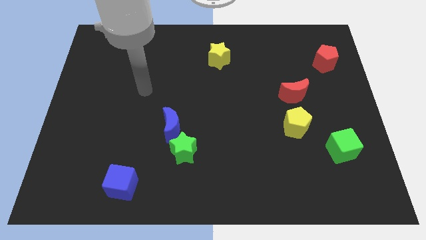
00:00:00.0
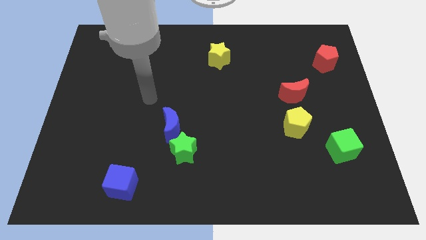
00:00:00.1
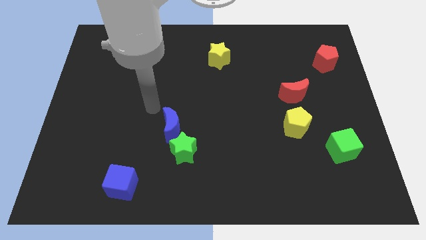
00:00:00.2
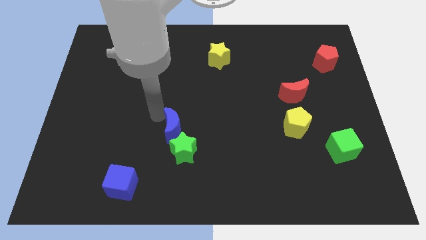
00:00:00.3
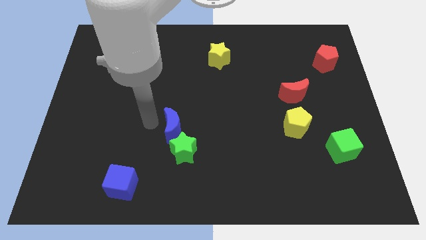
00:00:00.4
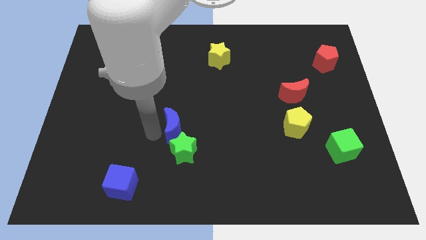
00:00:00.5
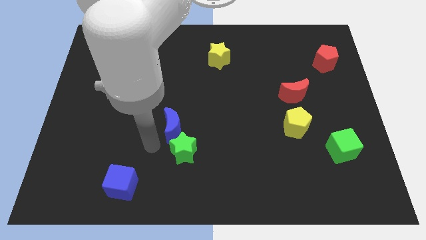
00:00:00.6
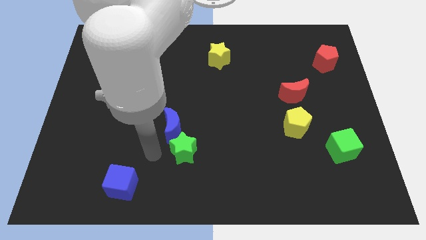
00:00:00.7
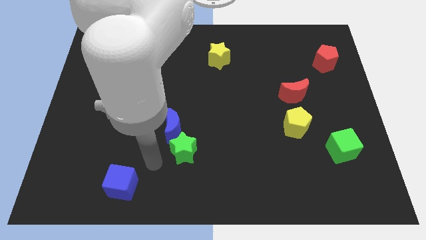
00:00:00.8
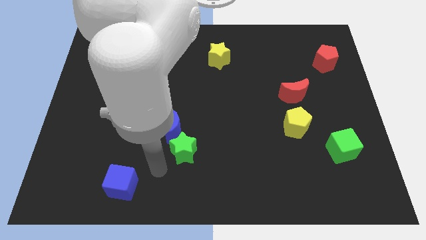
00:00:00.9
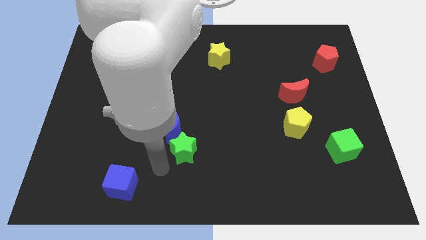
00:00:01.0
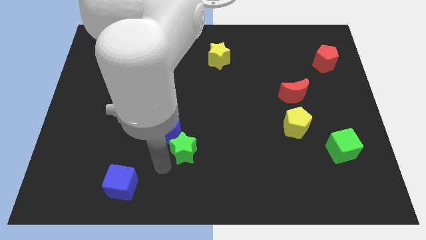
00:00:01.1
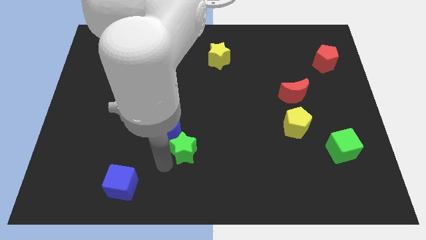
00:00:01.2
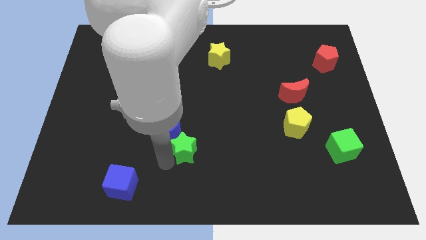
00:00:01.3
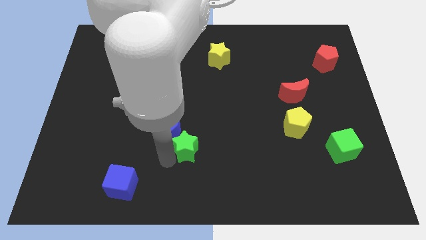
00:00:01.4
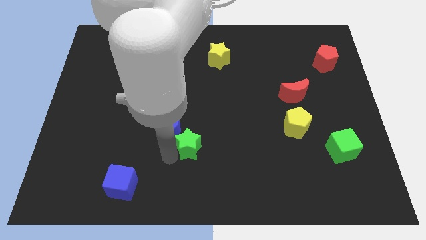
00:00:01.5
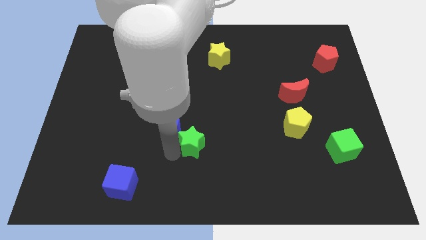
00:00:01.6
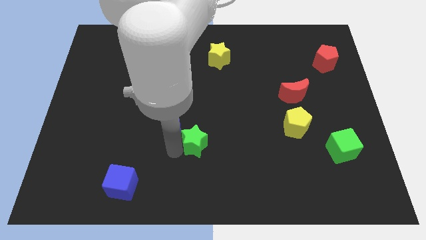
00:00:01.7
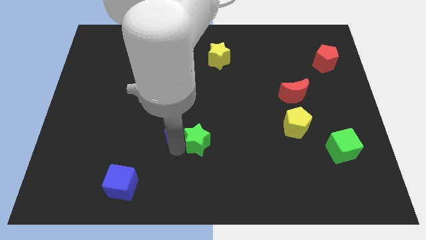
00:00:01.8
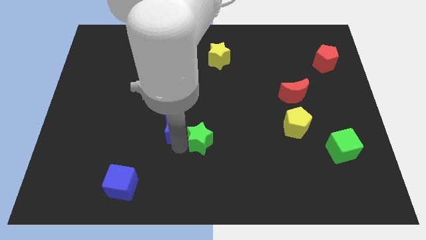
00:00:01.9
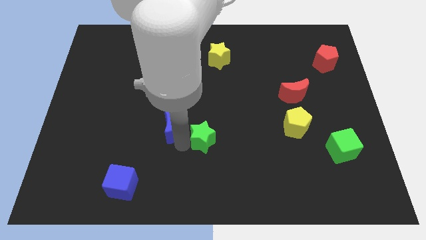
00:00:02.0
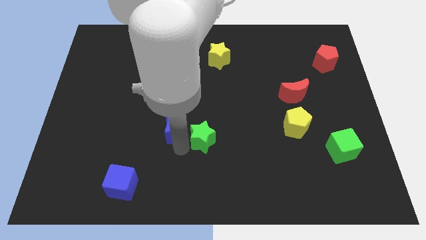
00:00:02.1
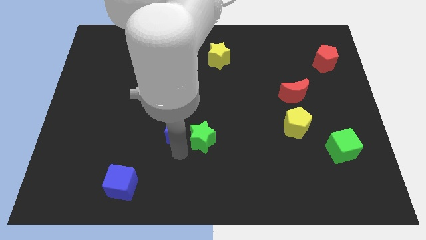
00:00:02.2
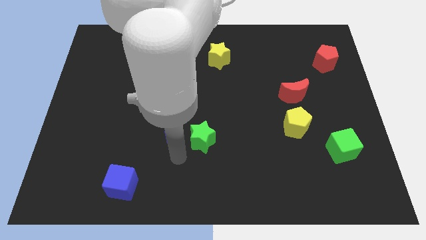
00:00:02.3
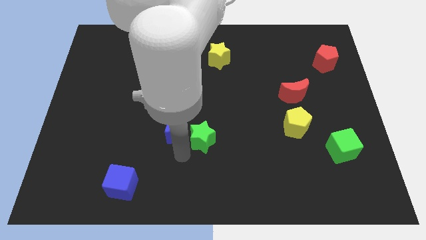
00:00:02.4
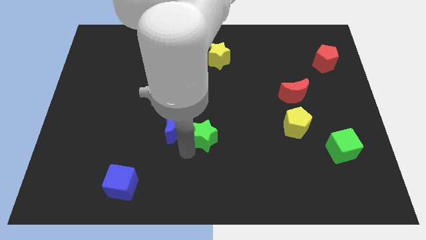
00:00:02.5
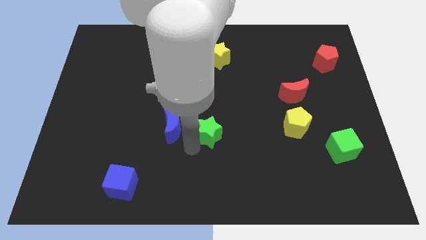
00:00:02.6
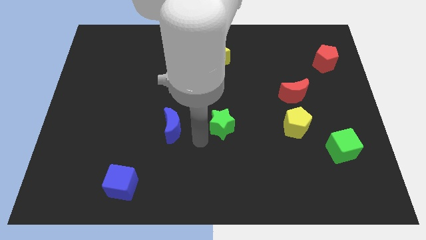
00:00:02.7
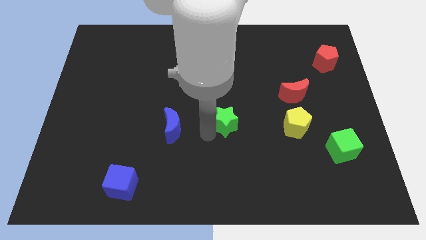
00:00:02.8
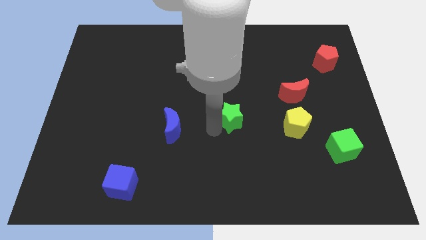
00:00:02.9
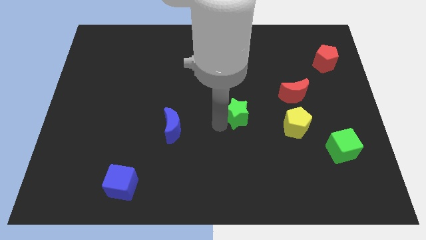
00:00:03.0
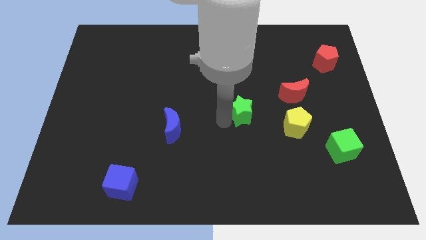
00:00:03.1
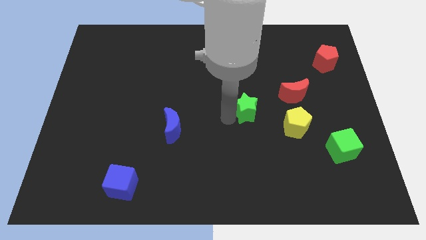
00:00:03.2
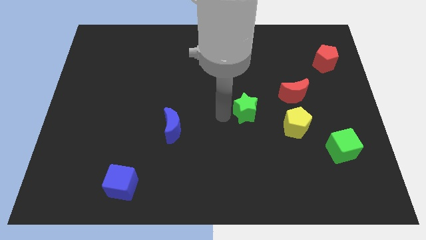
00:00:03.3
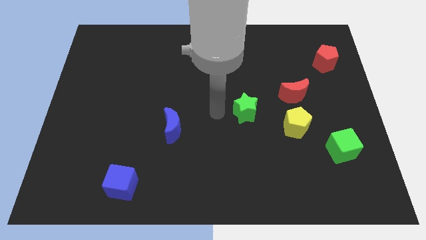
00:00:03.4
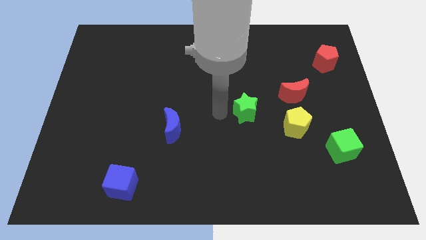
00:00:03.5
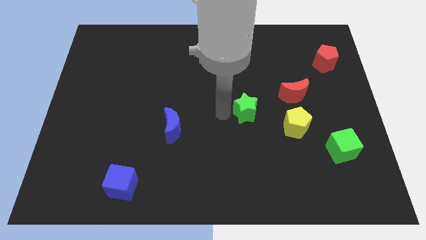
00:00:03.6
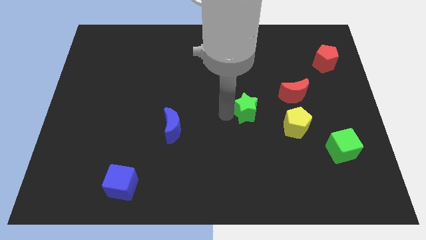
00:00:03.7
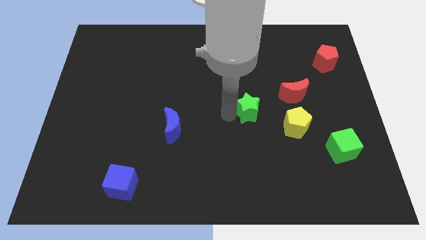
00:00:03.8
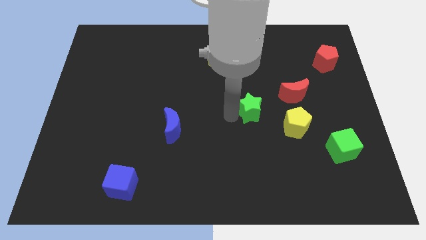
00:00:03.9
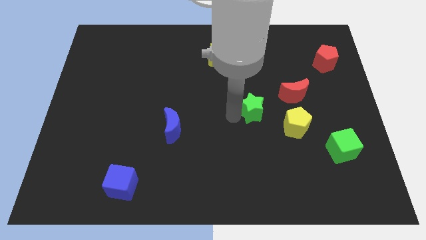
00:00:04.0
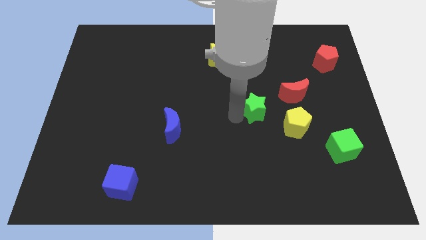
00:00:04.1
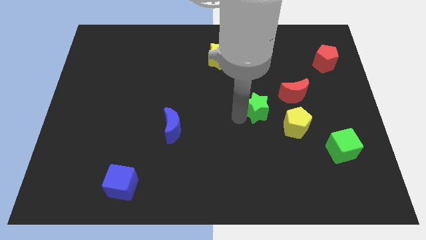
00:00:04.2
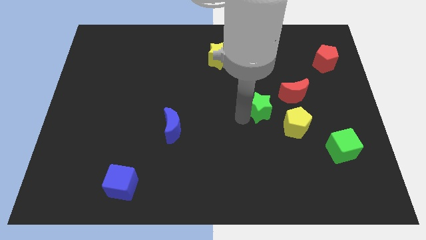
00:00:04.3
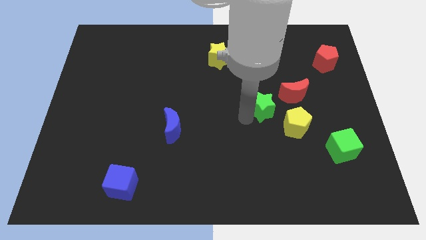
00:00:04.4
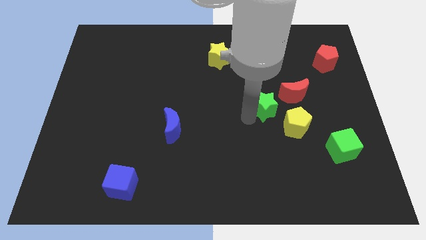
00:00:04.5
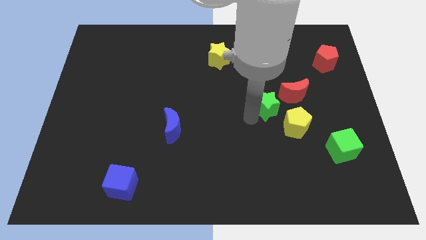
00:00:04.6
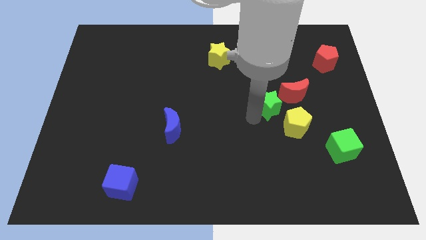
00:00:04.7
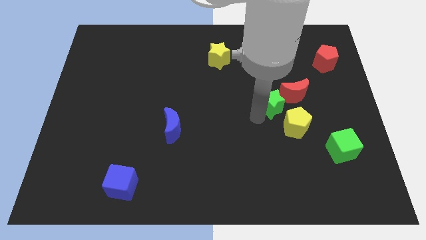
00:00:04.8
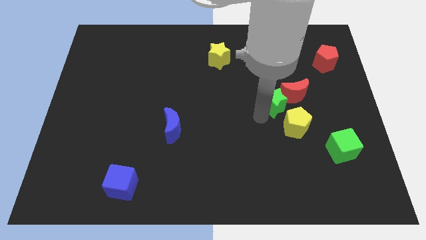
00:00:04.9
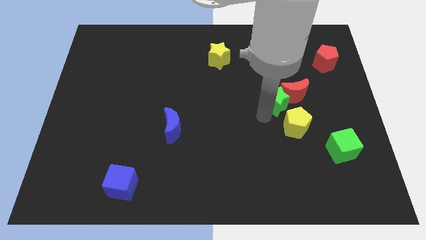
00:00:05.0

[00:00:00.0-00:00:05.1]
slide the green star next to the red moon

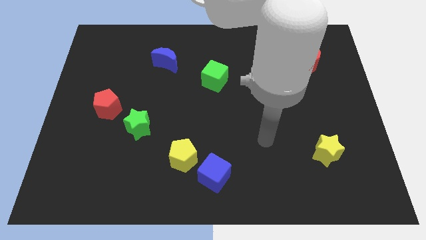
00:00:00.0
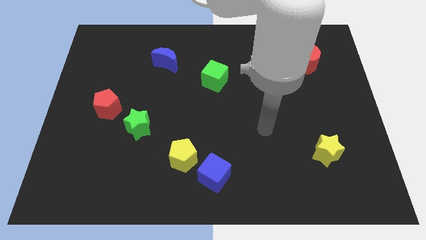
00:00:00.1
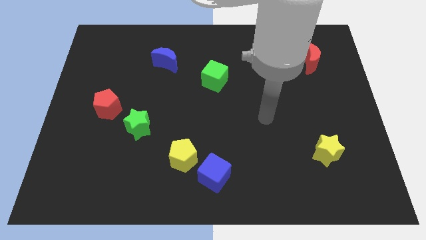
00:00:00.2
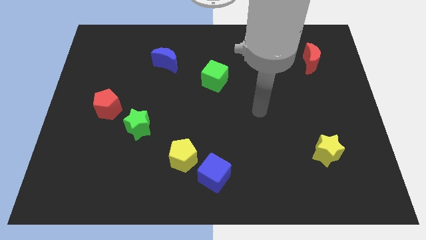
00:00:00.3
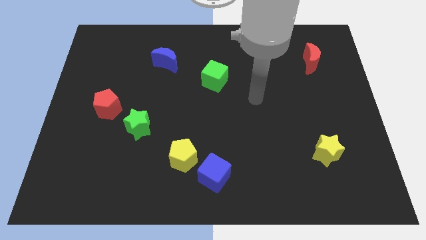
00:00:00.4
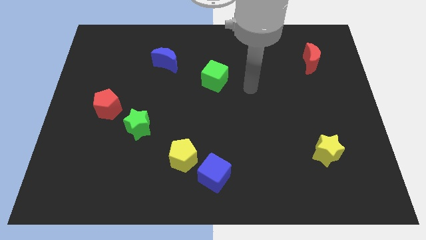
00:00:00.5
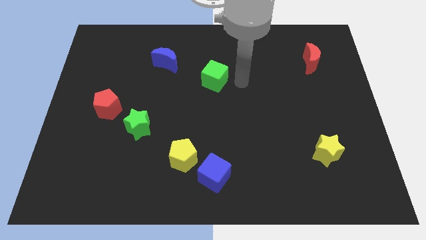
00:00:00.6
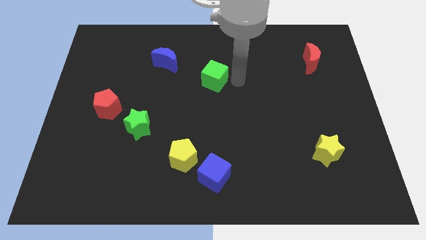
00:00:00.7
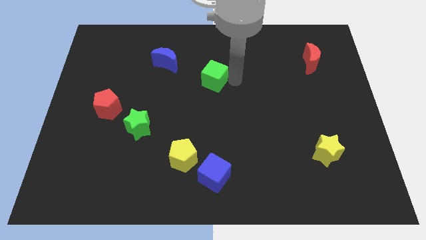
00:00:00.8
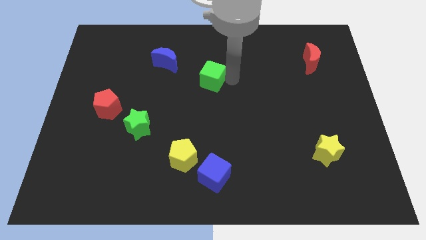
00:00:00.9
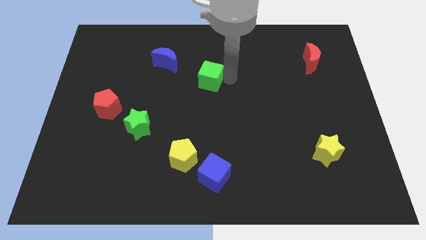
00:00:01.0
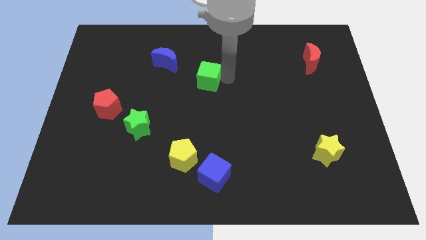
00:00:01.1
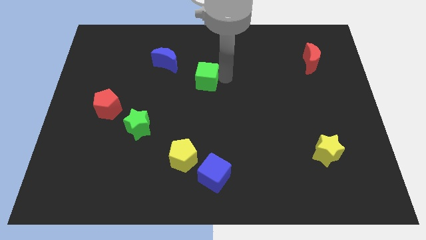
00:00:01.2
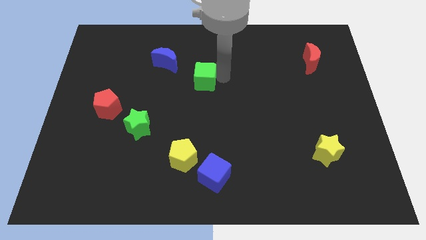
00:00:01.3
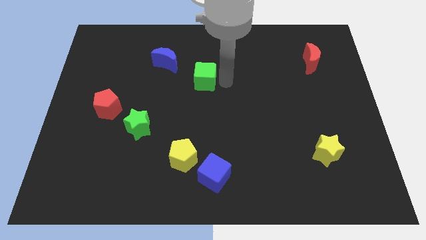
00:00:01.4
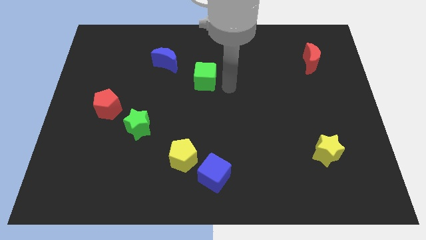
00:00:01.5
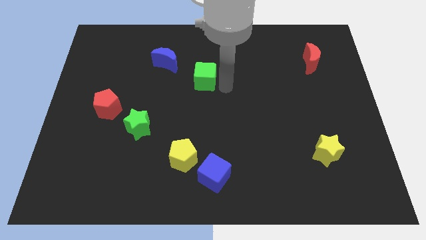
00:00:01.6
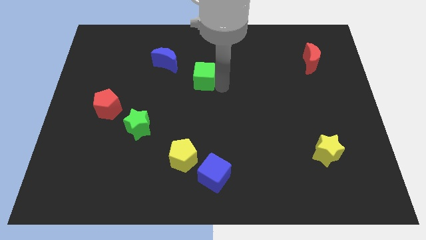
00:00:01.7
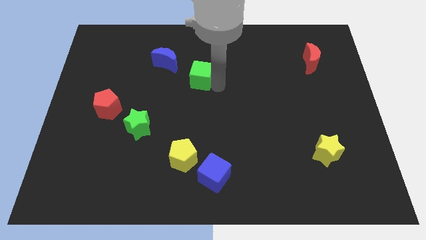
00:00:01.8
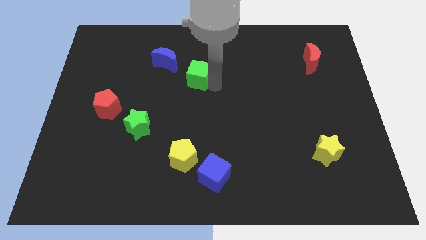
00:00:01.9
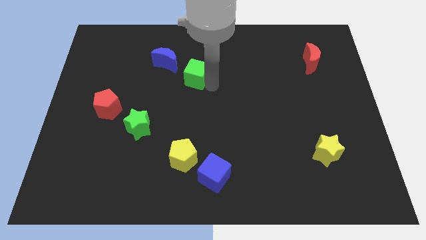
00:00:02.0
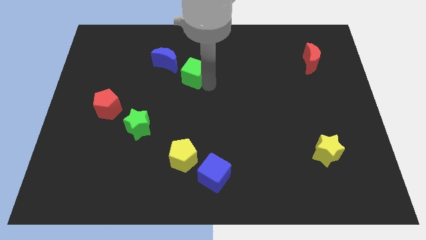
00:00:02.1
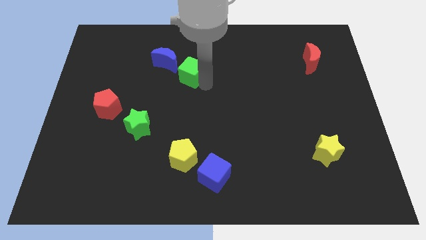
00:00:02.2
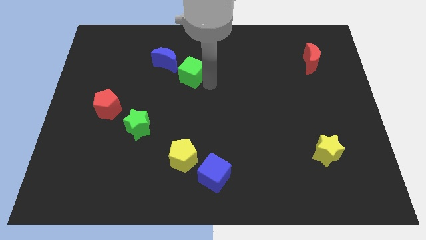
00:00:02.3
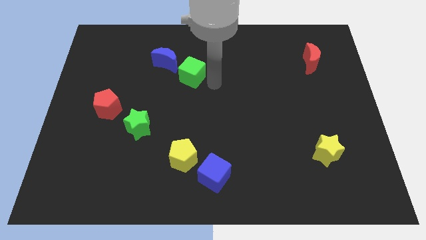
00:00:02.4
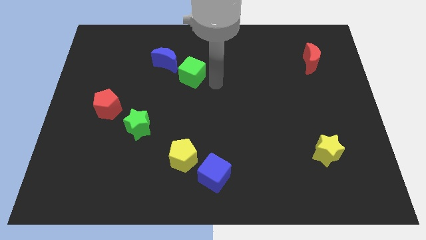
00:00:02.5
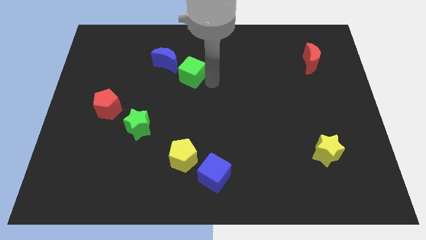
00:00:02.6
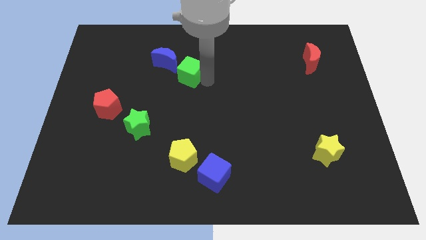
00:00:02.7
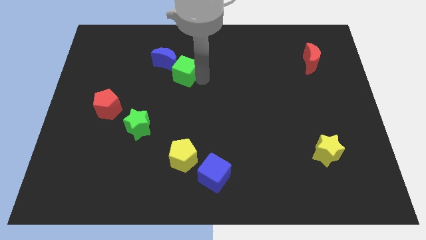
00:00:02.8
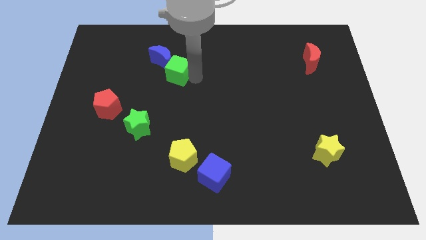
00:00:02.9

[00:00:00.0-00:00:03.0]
push the green cube close to the blue moon
